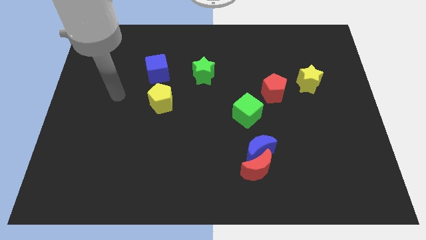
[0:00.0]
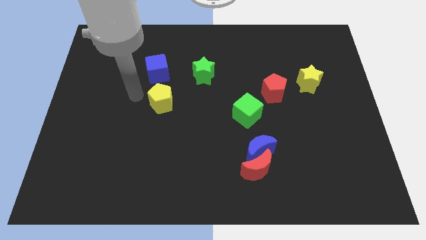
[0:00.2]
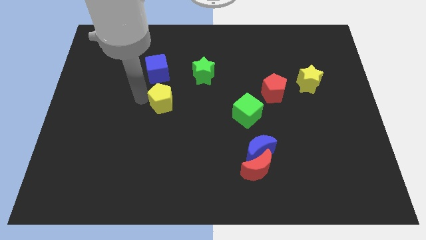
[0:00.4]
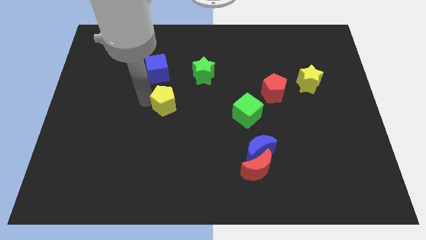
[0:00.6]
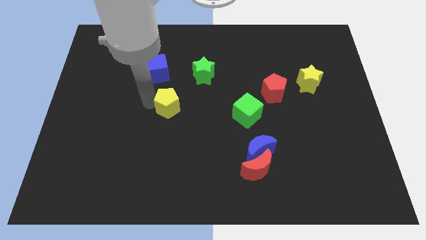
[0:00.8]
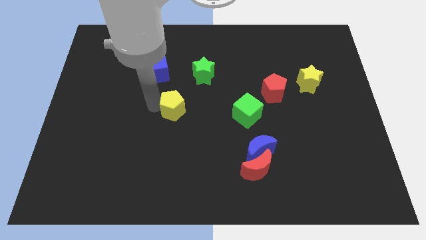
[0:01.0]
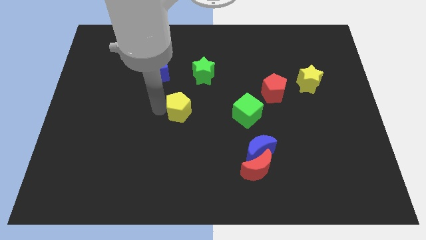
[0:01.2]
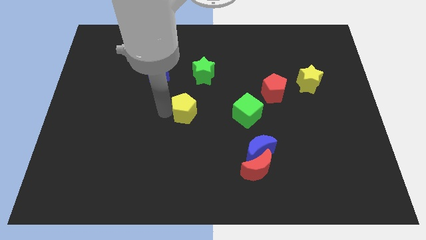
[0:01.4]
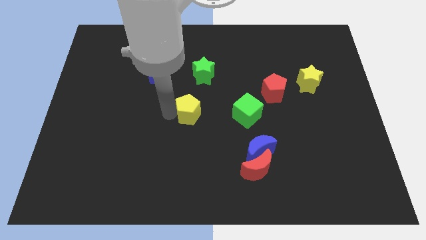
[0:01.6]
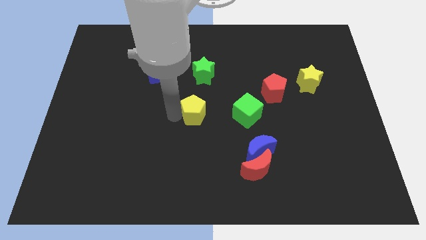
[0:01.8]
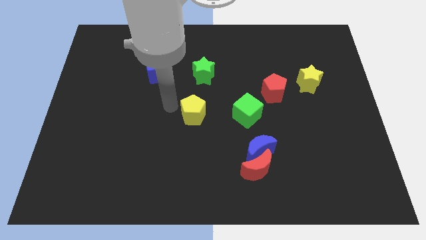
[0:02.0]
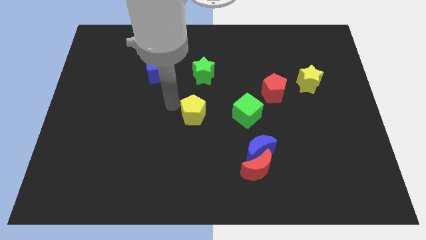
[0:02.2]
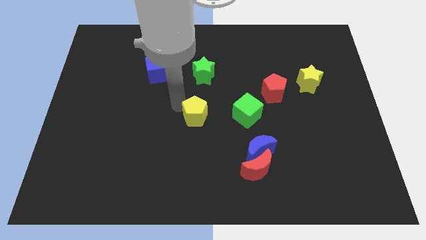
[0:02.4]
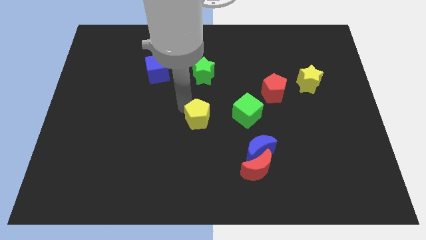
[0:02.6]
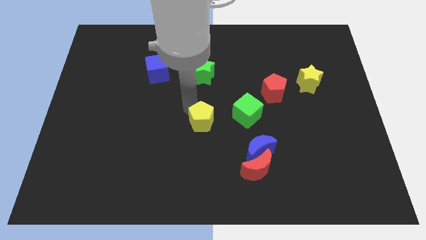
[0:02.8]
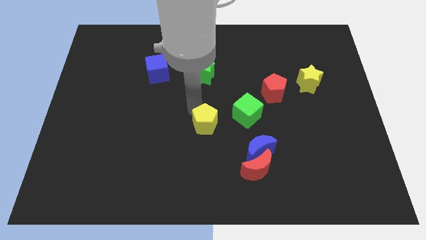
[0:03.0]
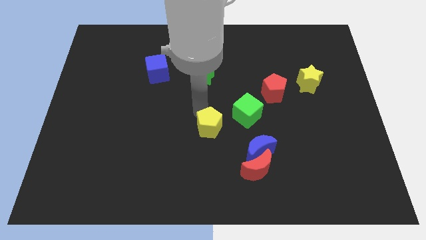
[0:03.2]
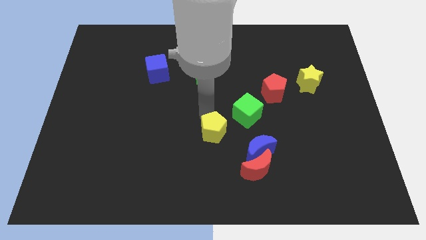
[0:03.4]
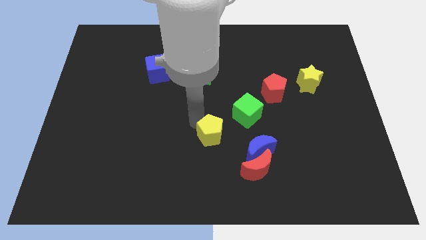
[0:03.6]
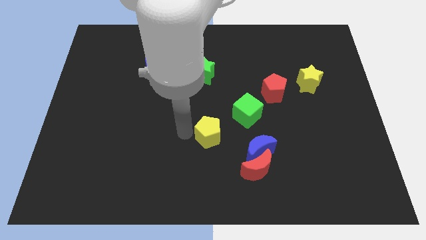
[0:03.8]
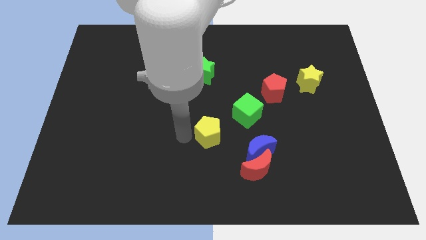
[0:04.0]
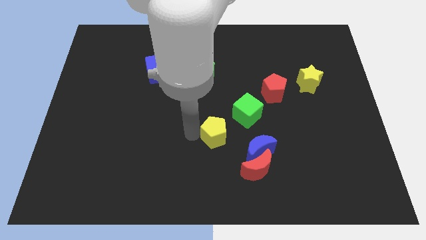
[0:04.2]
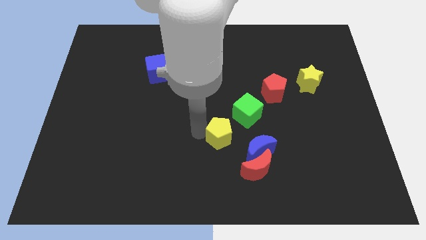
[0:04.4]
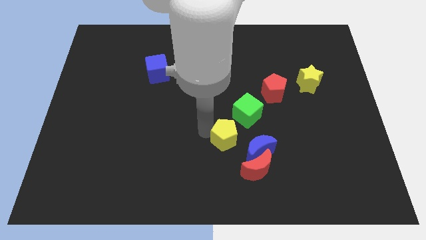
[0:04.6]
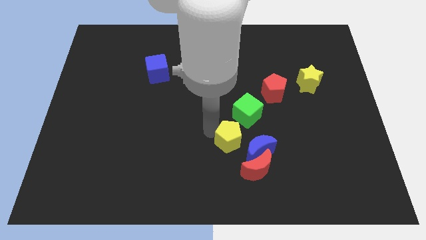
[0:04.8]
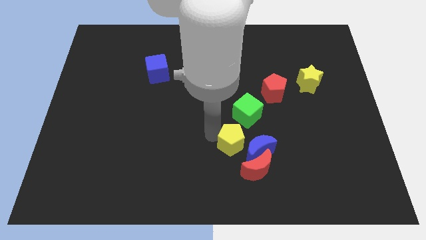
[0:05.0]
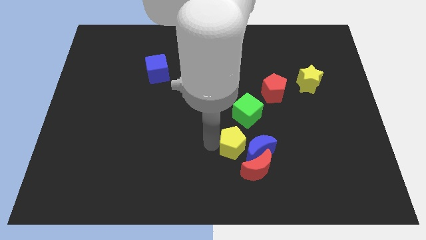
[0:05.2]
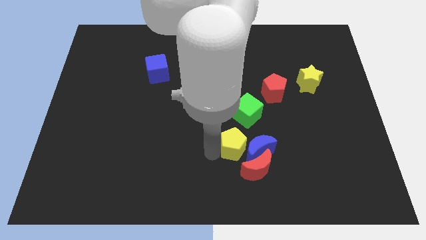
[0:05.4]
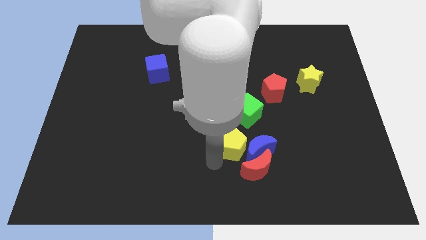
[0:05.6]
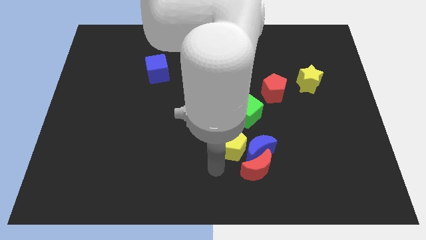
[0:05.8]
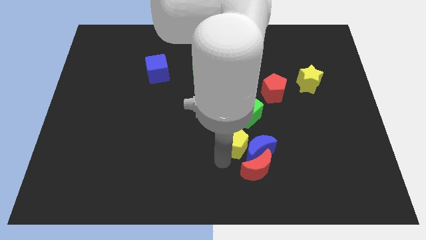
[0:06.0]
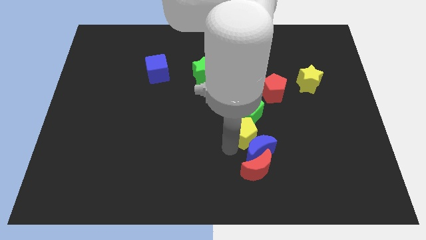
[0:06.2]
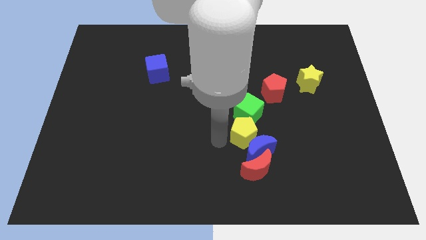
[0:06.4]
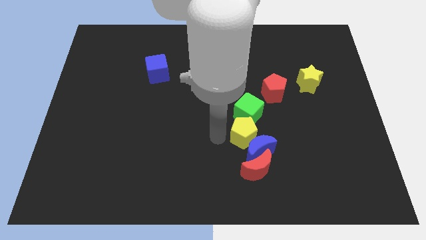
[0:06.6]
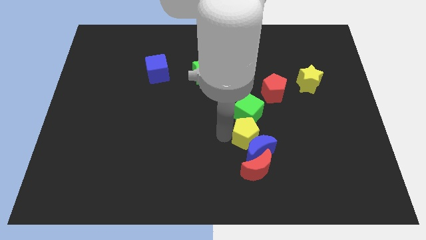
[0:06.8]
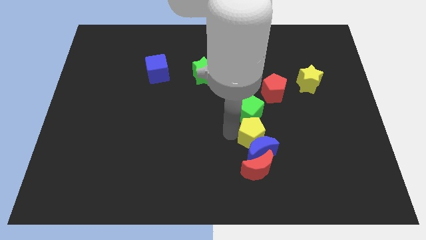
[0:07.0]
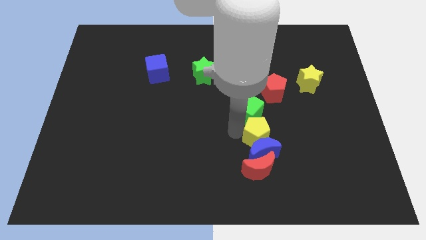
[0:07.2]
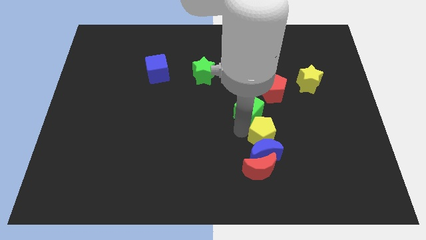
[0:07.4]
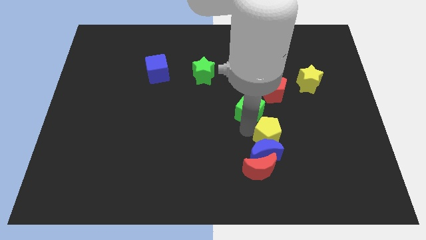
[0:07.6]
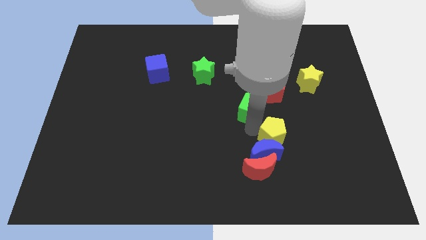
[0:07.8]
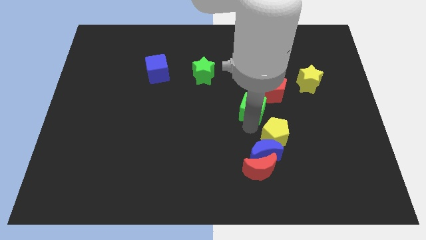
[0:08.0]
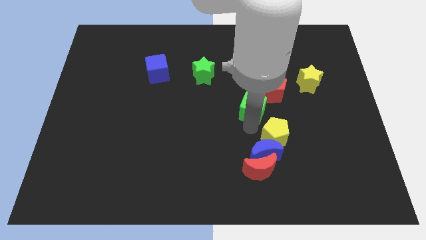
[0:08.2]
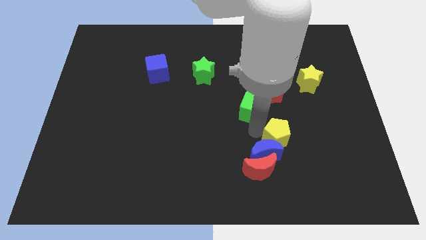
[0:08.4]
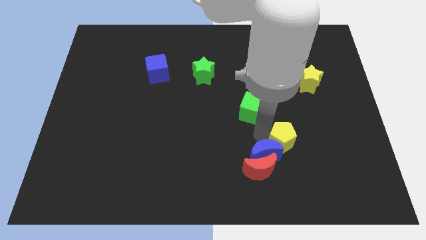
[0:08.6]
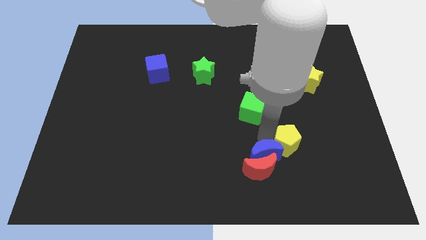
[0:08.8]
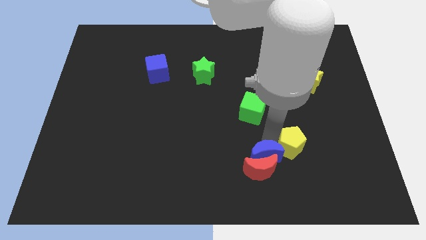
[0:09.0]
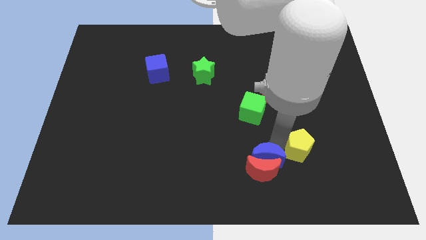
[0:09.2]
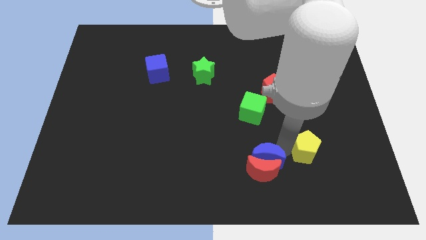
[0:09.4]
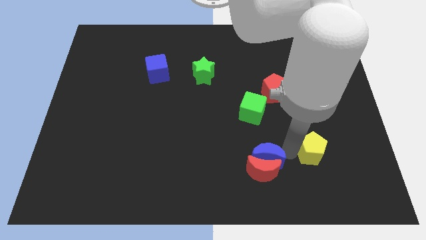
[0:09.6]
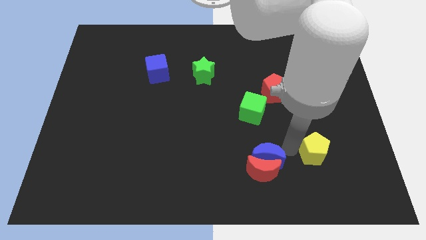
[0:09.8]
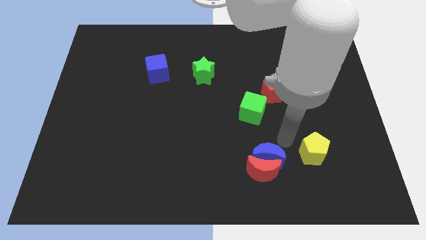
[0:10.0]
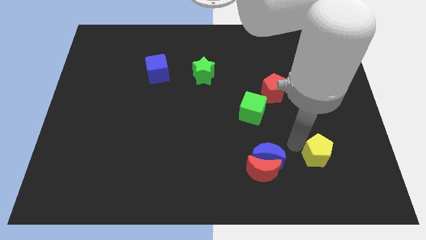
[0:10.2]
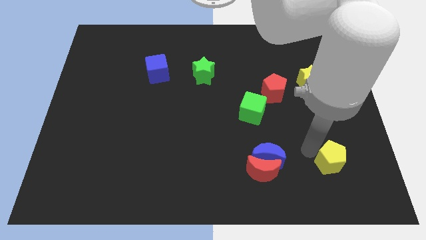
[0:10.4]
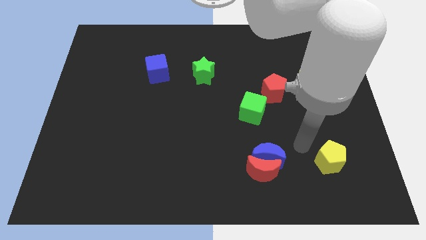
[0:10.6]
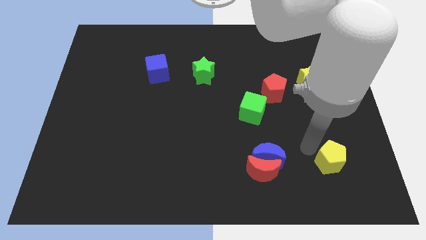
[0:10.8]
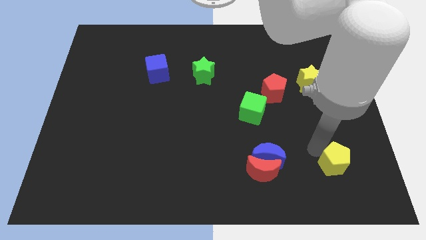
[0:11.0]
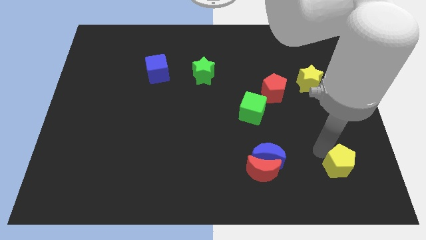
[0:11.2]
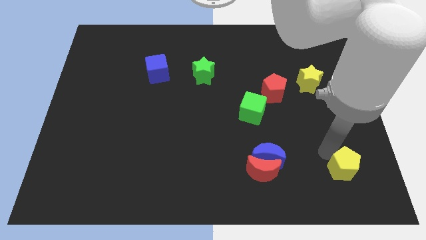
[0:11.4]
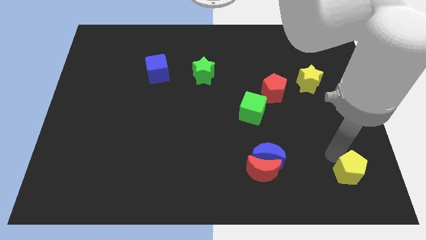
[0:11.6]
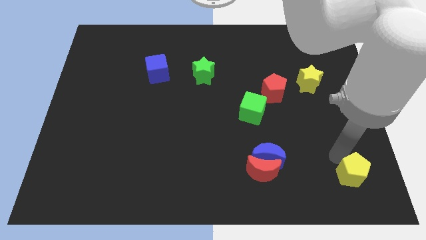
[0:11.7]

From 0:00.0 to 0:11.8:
slide the yellow pentagon to the lower right corner

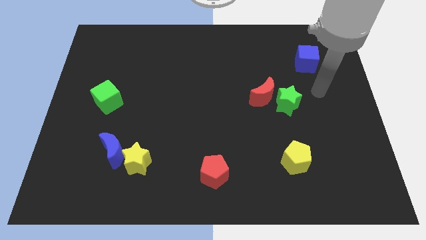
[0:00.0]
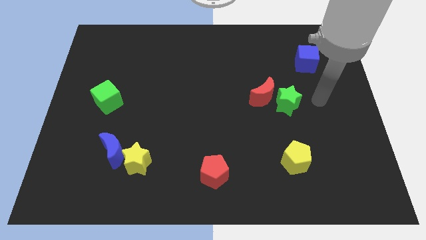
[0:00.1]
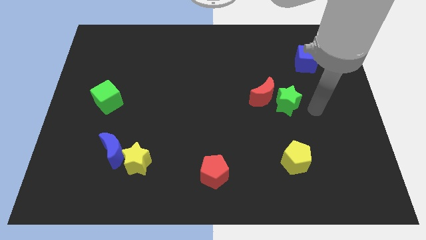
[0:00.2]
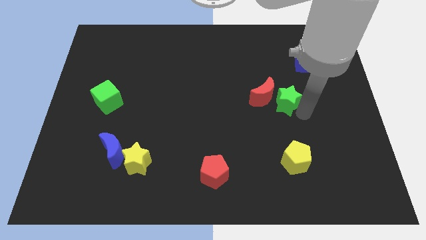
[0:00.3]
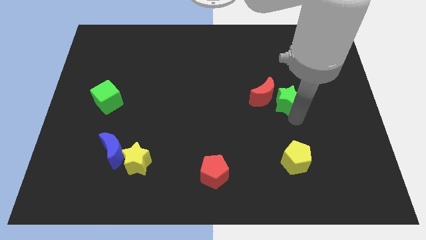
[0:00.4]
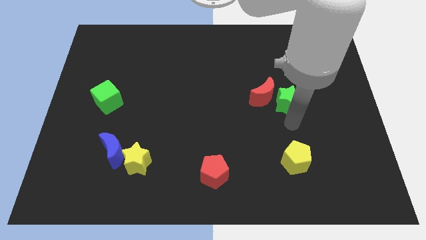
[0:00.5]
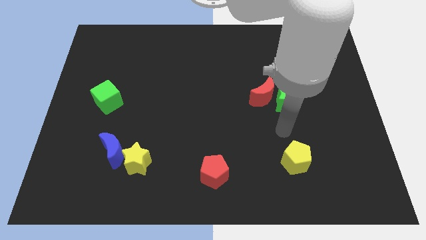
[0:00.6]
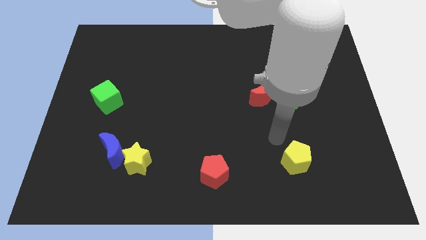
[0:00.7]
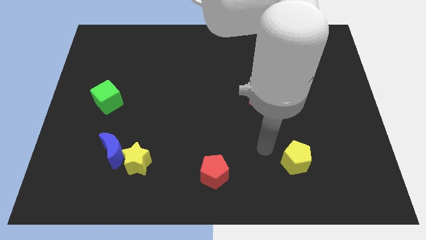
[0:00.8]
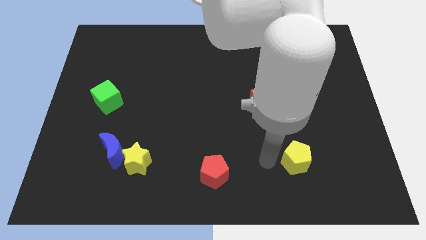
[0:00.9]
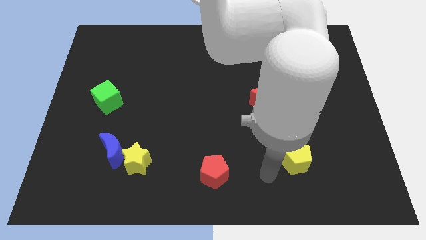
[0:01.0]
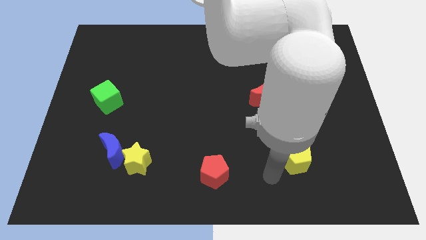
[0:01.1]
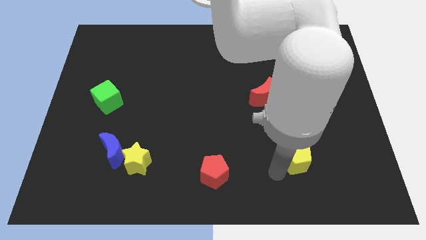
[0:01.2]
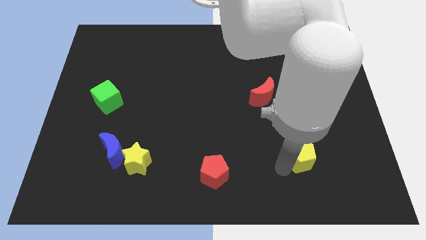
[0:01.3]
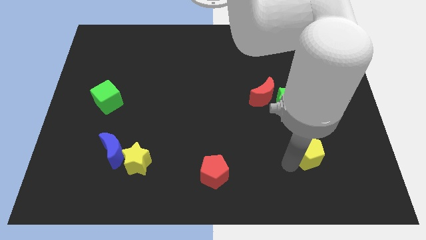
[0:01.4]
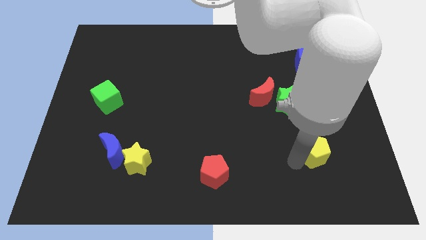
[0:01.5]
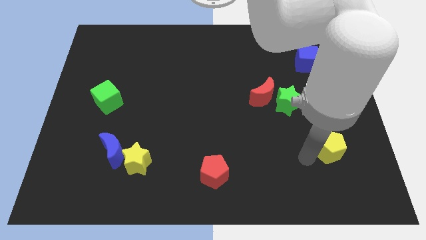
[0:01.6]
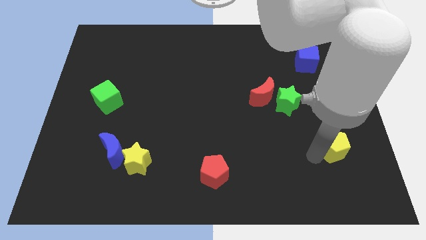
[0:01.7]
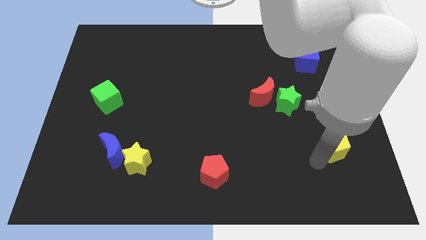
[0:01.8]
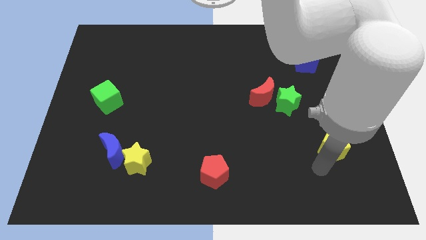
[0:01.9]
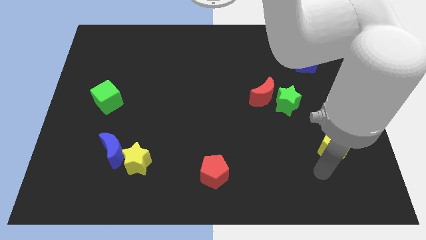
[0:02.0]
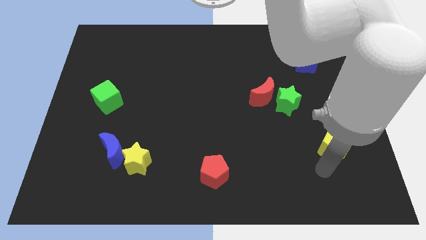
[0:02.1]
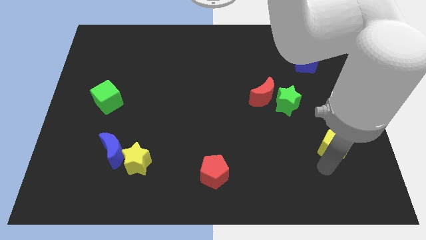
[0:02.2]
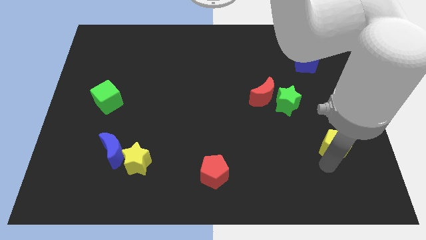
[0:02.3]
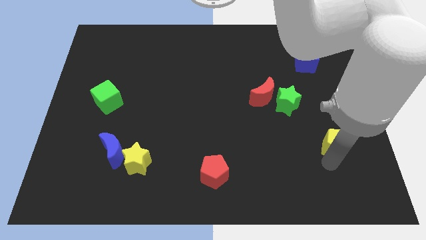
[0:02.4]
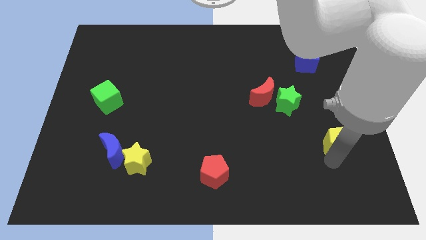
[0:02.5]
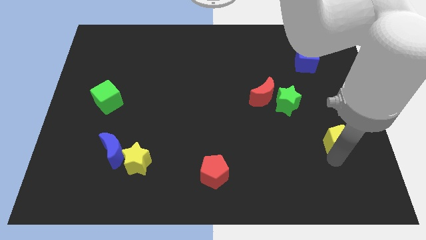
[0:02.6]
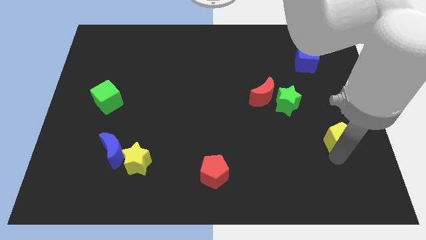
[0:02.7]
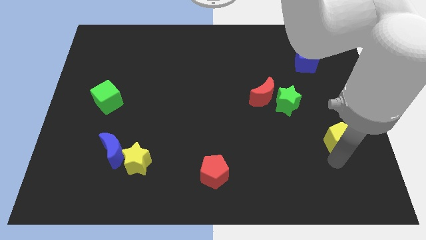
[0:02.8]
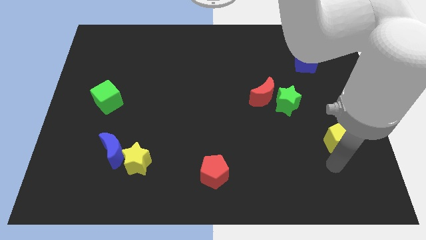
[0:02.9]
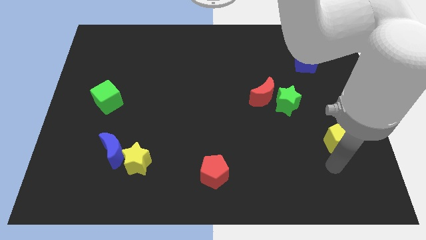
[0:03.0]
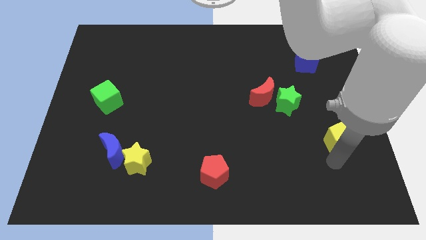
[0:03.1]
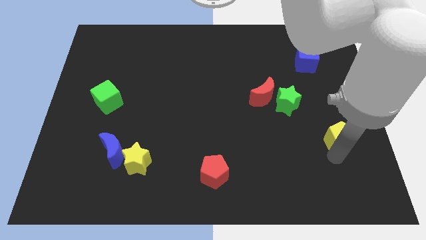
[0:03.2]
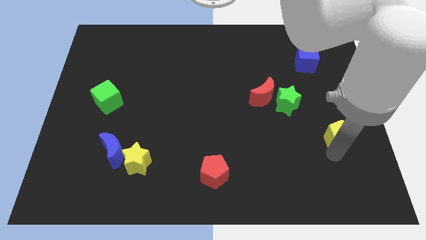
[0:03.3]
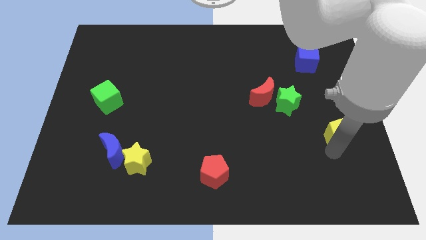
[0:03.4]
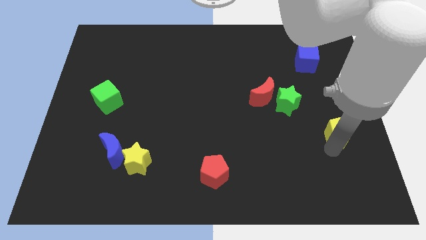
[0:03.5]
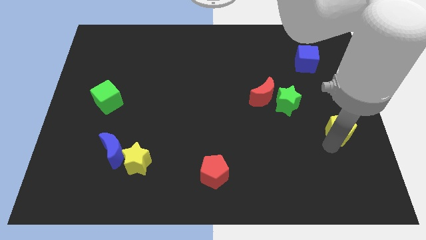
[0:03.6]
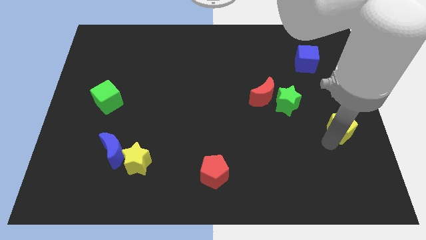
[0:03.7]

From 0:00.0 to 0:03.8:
push the yellow pentagon to the right side
